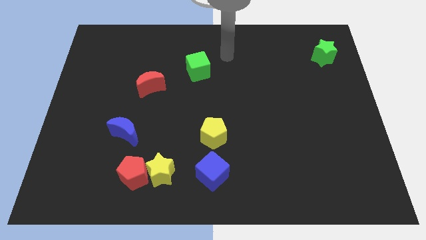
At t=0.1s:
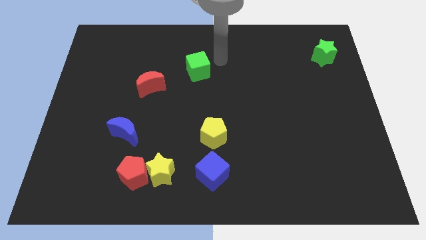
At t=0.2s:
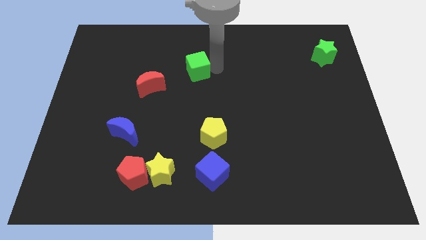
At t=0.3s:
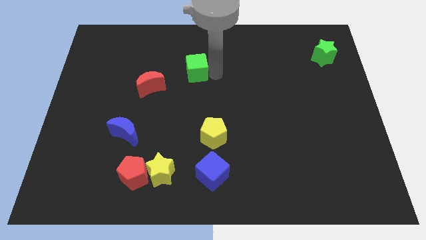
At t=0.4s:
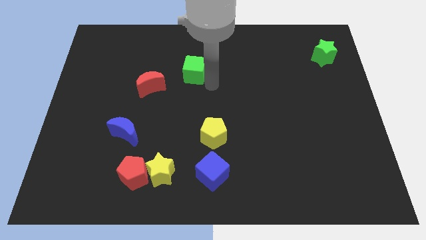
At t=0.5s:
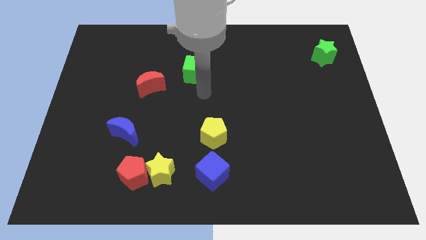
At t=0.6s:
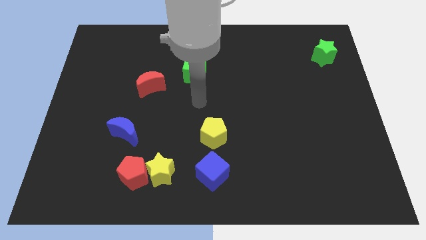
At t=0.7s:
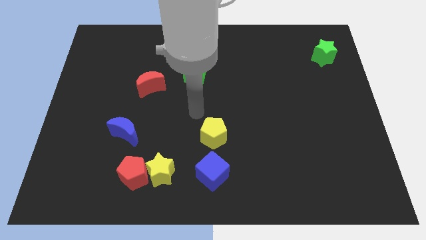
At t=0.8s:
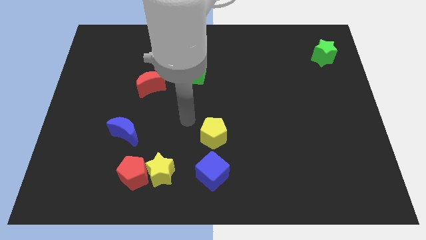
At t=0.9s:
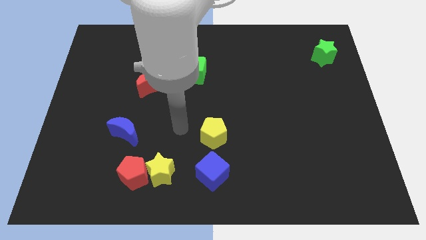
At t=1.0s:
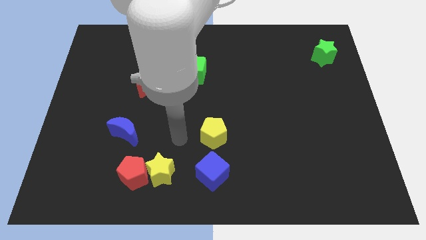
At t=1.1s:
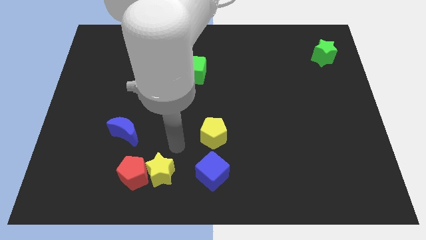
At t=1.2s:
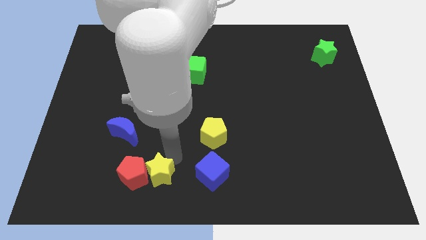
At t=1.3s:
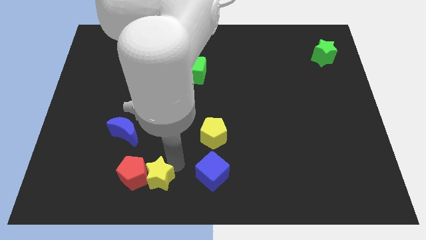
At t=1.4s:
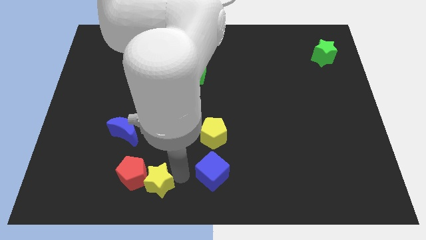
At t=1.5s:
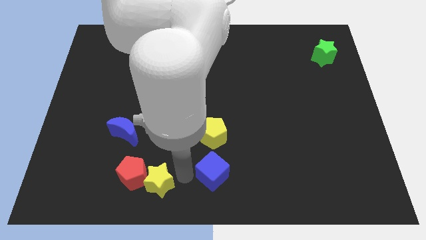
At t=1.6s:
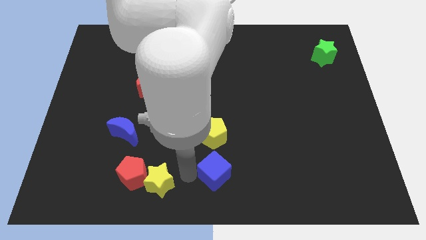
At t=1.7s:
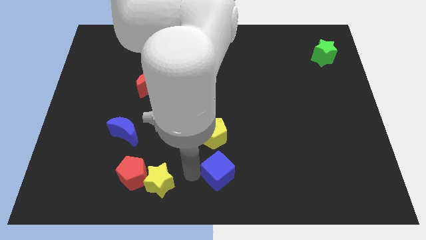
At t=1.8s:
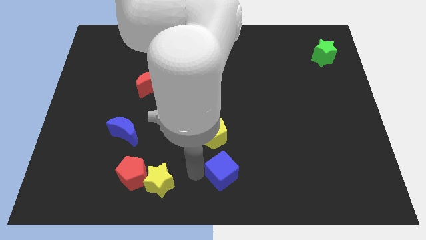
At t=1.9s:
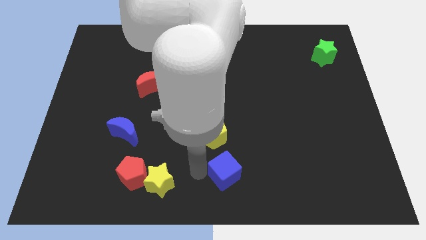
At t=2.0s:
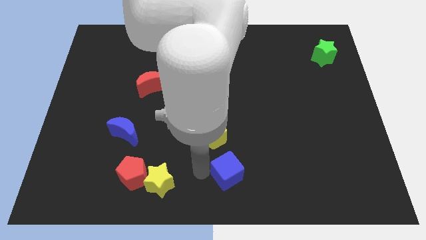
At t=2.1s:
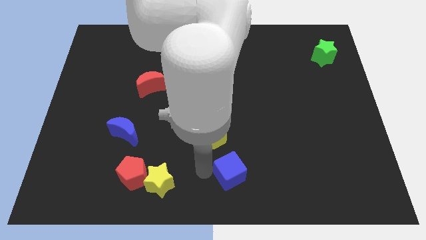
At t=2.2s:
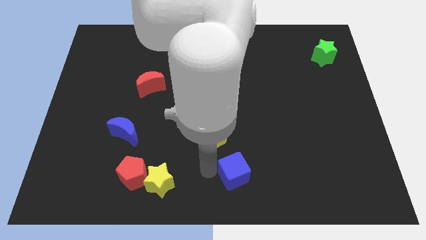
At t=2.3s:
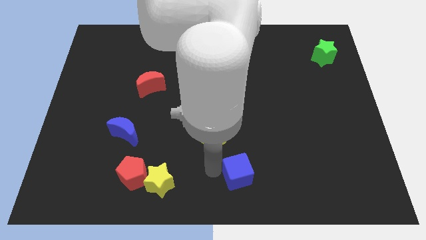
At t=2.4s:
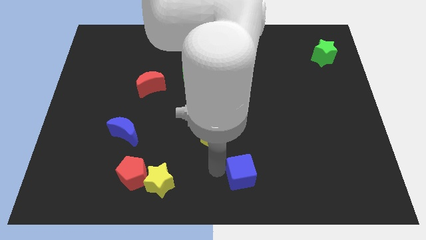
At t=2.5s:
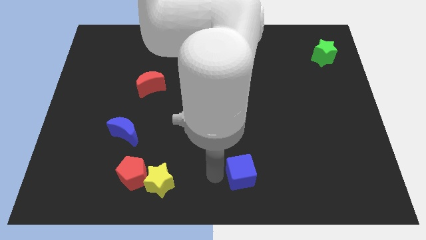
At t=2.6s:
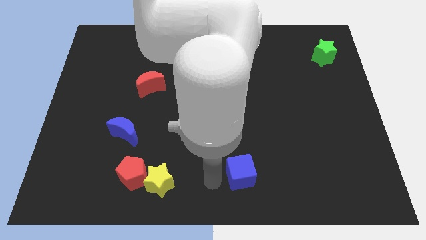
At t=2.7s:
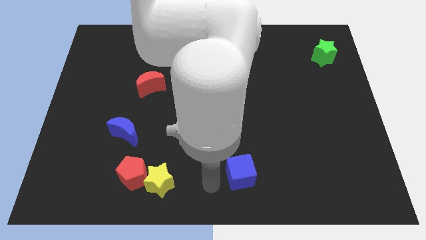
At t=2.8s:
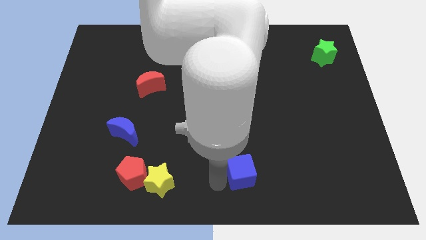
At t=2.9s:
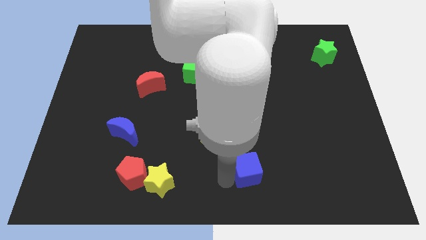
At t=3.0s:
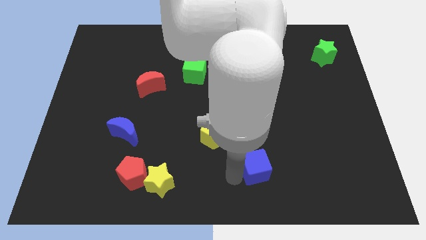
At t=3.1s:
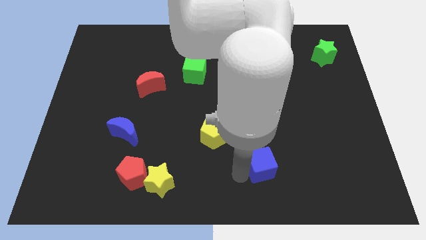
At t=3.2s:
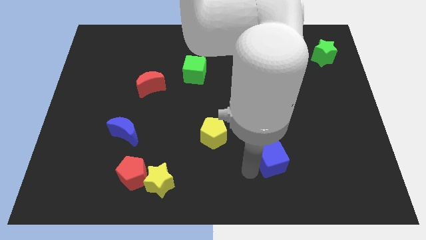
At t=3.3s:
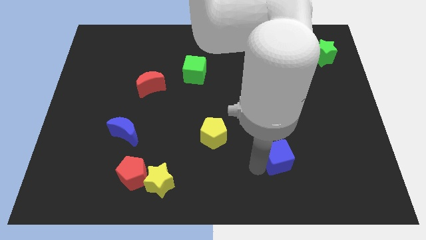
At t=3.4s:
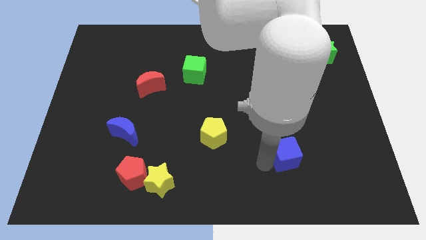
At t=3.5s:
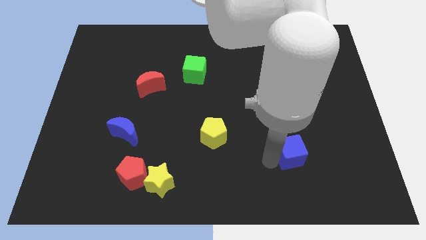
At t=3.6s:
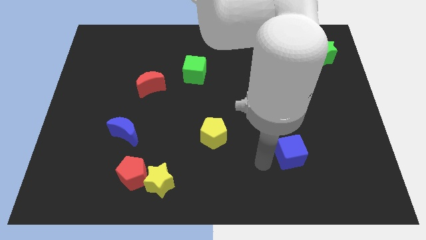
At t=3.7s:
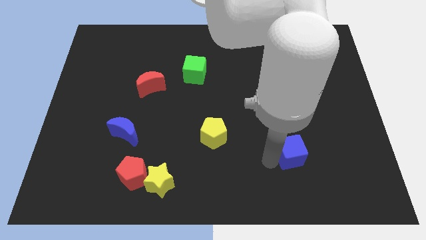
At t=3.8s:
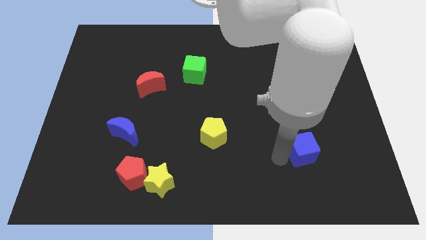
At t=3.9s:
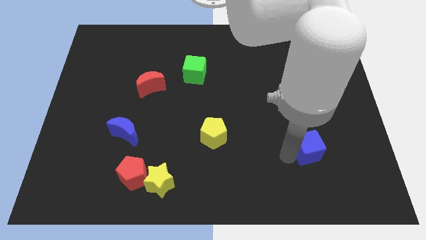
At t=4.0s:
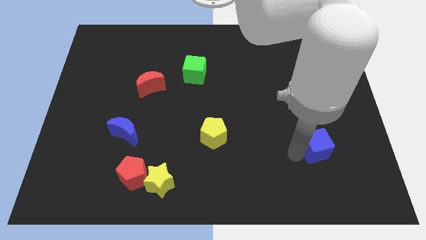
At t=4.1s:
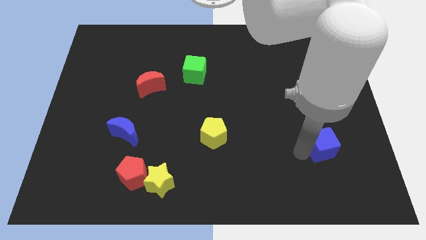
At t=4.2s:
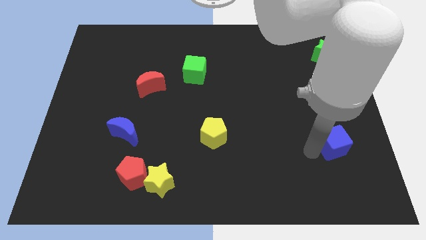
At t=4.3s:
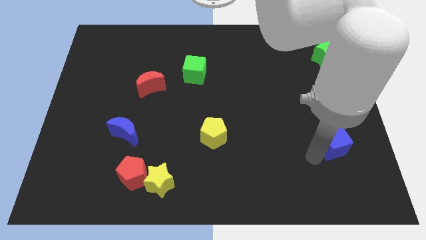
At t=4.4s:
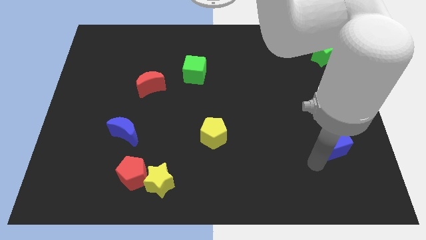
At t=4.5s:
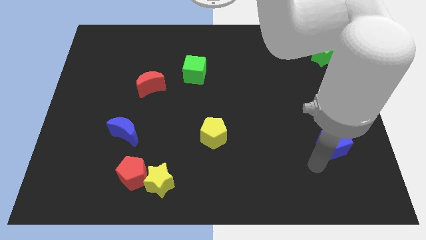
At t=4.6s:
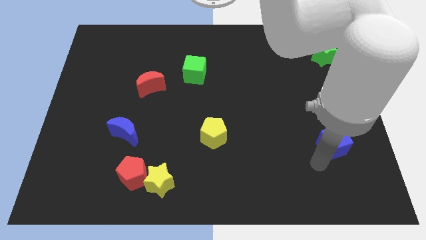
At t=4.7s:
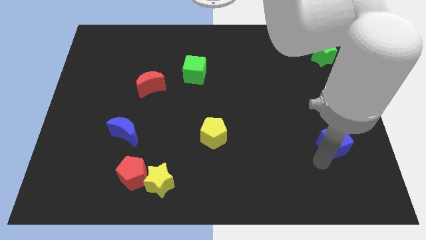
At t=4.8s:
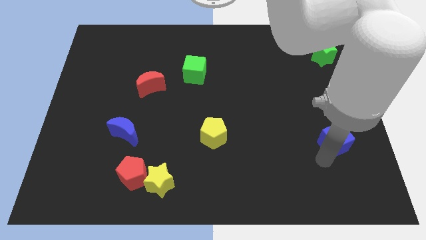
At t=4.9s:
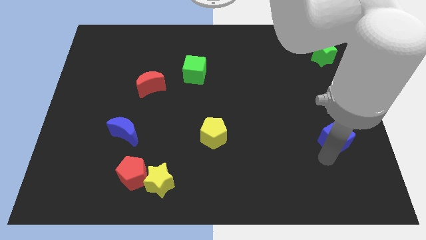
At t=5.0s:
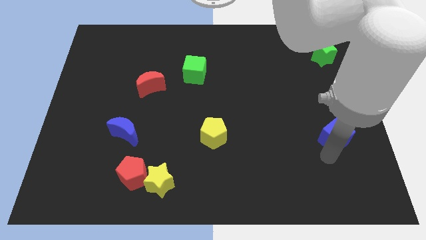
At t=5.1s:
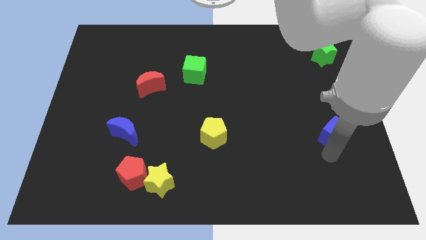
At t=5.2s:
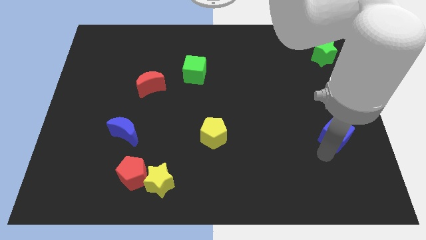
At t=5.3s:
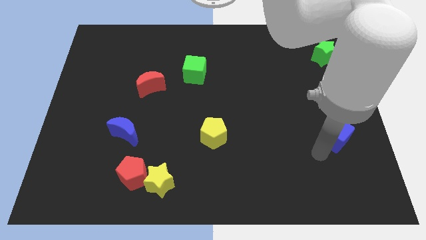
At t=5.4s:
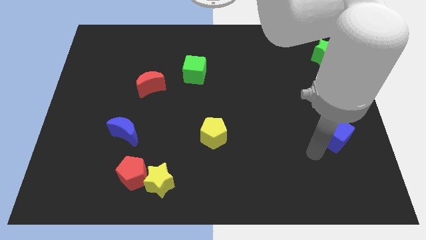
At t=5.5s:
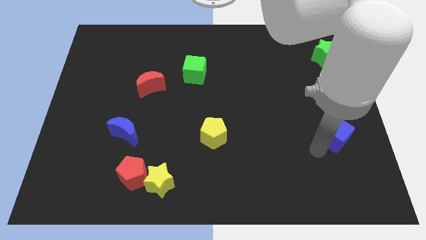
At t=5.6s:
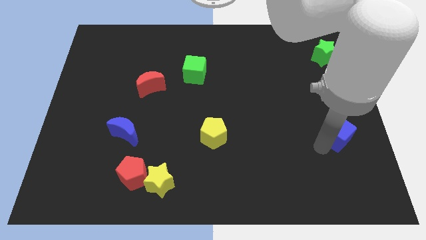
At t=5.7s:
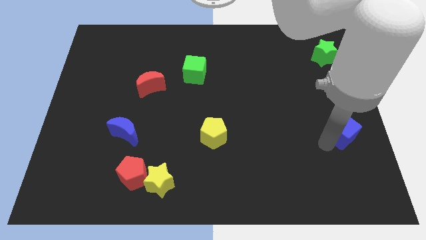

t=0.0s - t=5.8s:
push the blue cube to the center right

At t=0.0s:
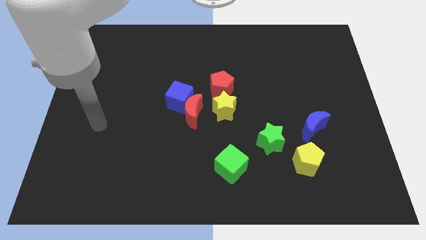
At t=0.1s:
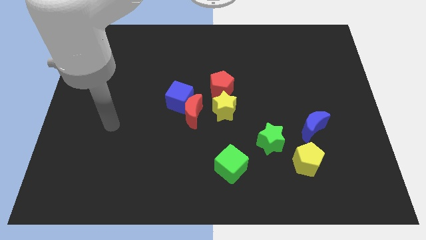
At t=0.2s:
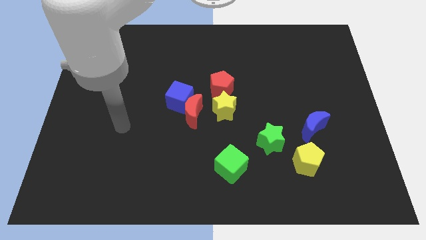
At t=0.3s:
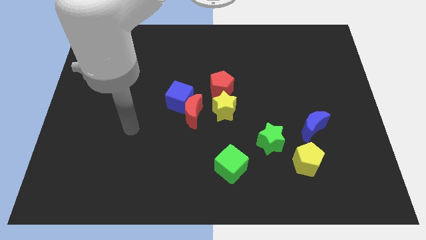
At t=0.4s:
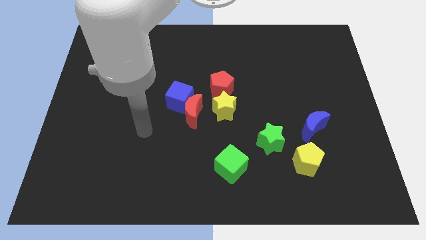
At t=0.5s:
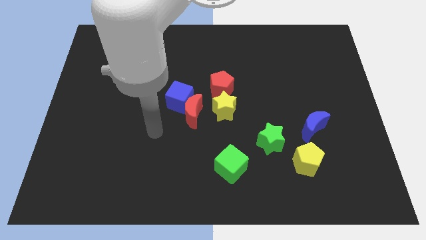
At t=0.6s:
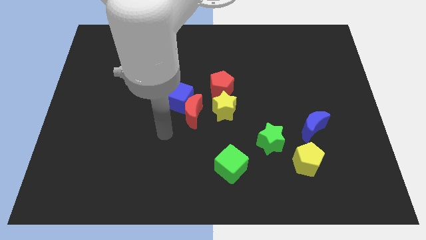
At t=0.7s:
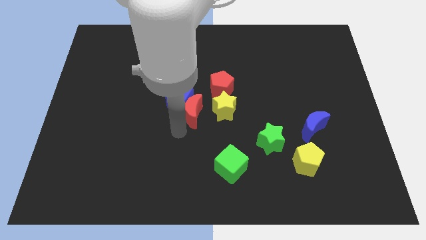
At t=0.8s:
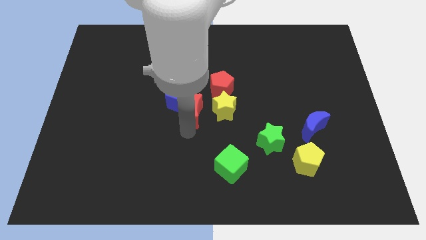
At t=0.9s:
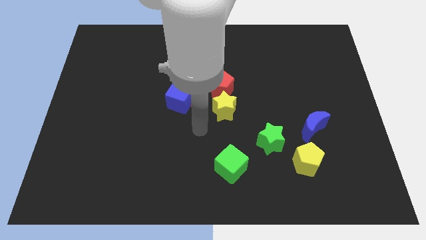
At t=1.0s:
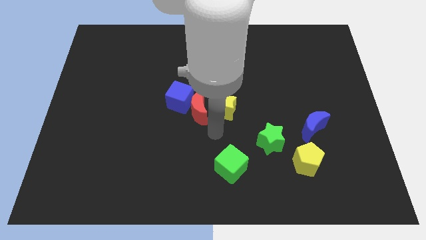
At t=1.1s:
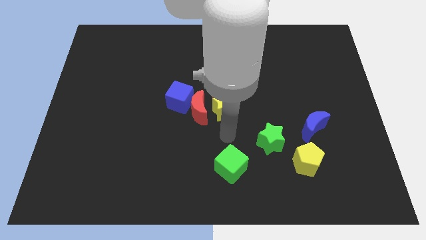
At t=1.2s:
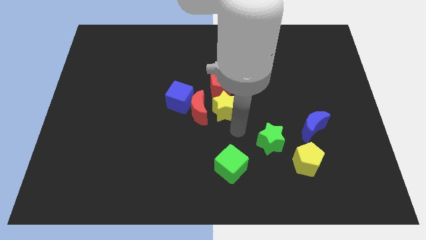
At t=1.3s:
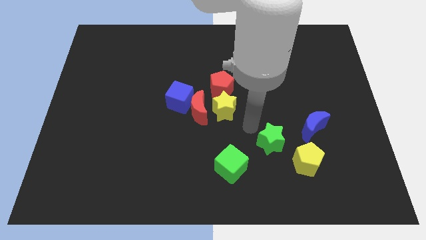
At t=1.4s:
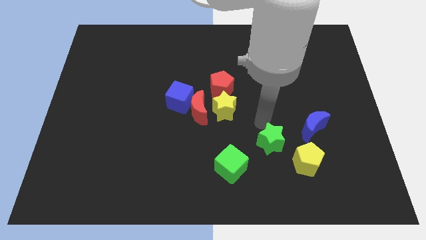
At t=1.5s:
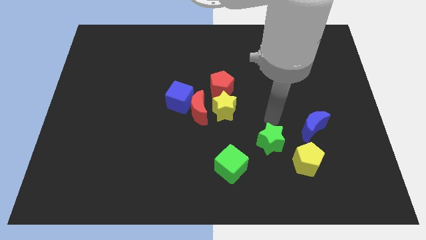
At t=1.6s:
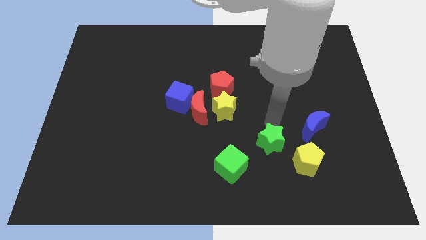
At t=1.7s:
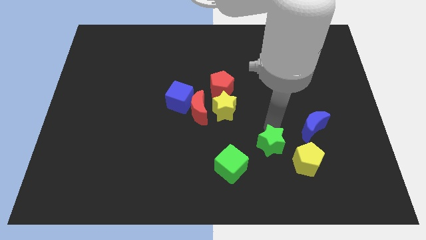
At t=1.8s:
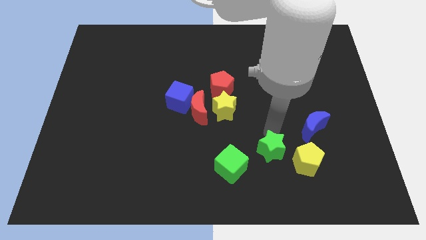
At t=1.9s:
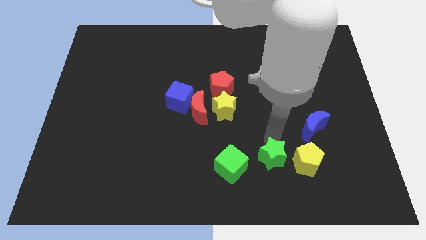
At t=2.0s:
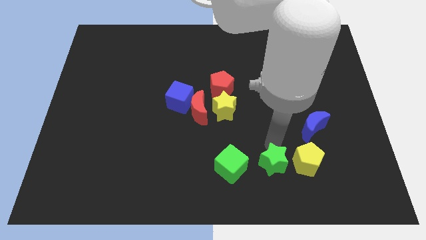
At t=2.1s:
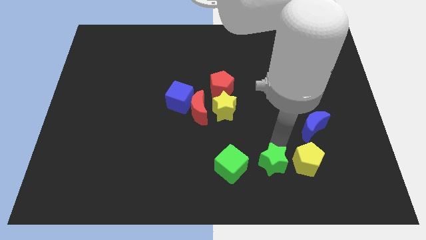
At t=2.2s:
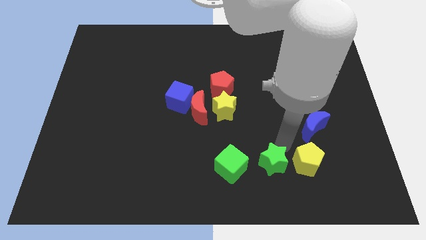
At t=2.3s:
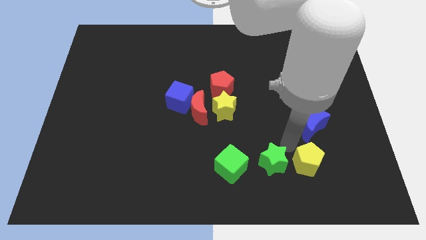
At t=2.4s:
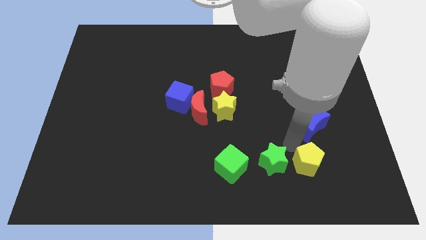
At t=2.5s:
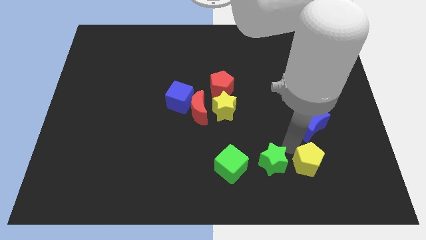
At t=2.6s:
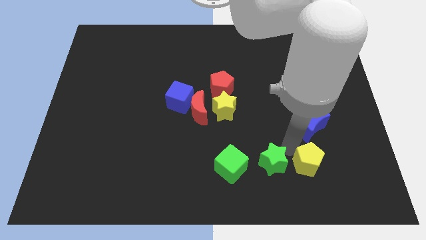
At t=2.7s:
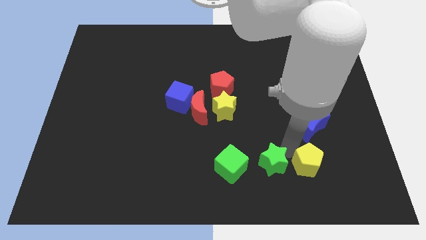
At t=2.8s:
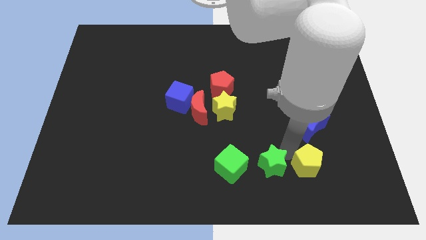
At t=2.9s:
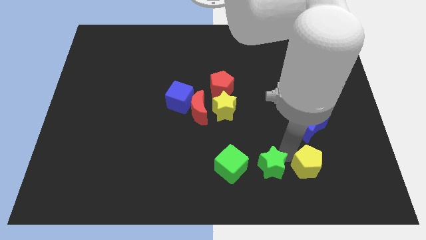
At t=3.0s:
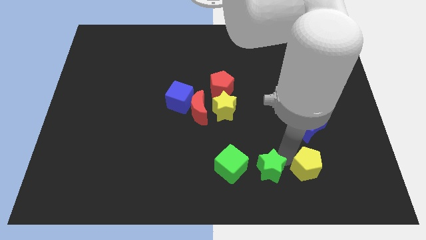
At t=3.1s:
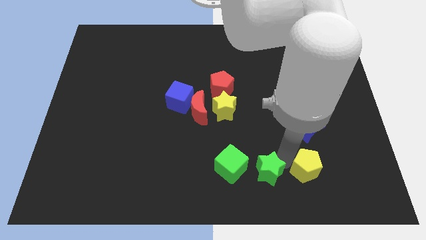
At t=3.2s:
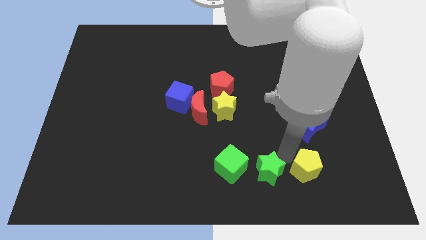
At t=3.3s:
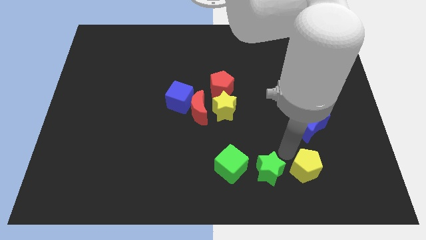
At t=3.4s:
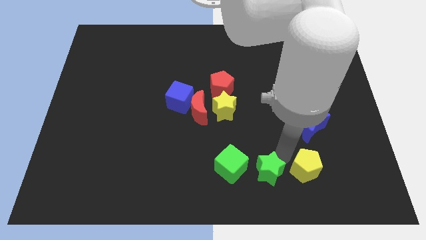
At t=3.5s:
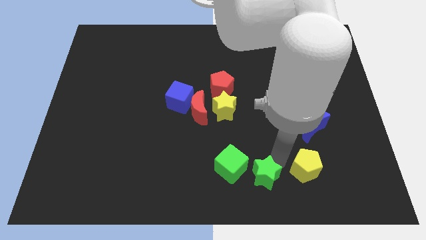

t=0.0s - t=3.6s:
move the green star to the bottom
